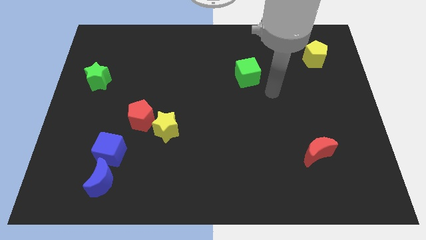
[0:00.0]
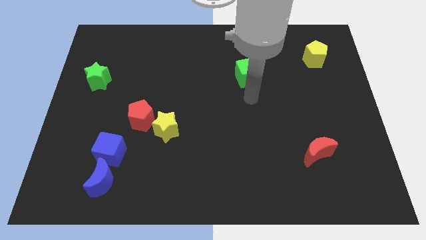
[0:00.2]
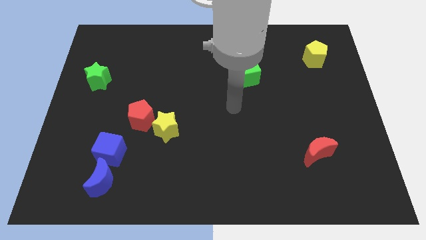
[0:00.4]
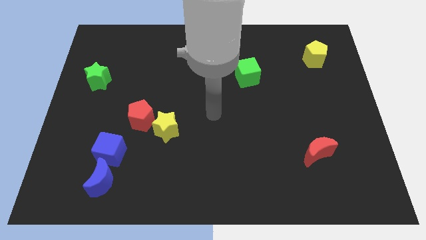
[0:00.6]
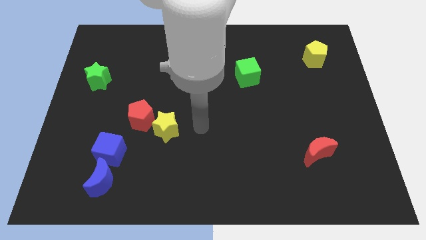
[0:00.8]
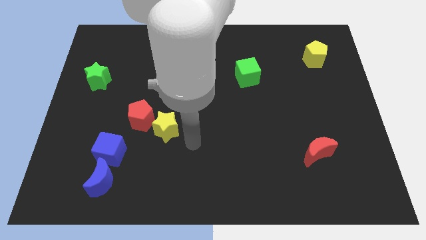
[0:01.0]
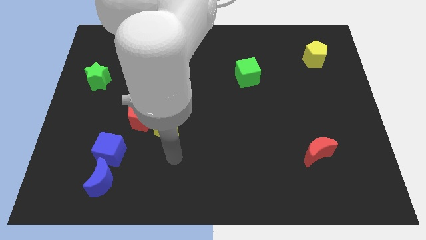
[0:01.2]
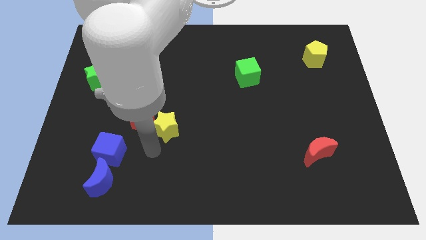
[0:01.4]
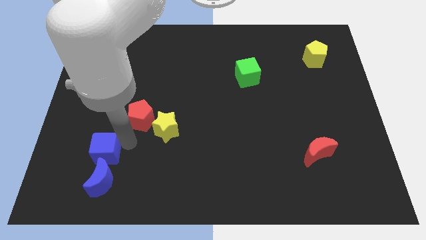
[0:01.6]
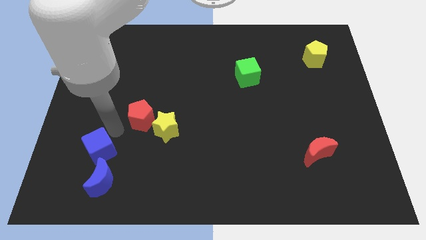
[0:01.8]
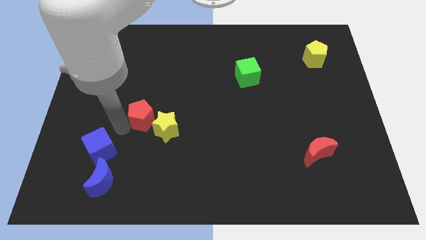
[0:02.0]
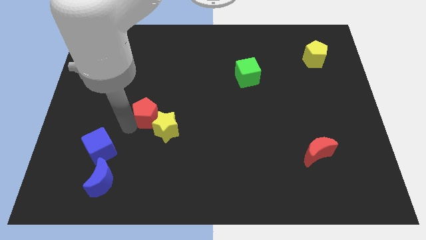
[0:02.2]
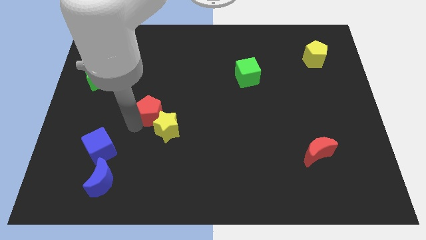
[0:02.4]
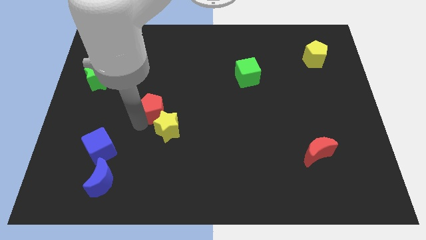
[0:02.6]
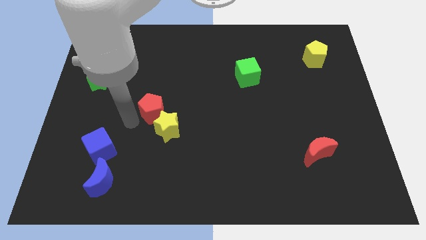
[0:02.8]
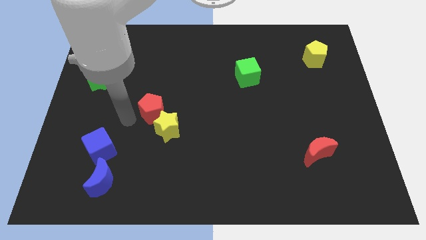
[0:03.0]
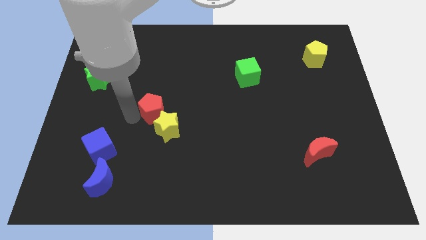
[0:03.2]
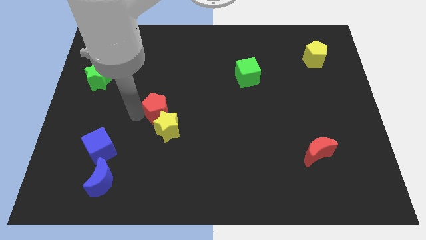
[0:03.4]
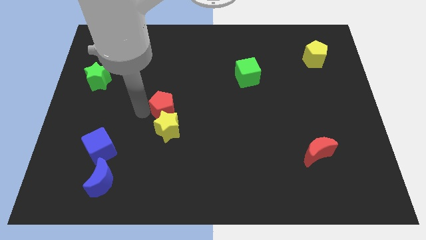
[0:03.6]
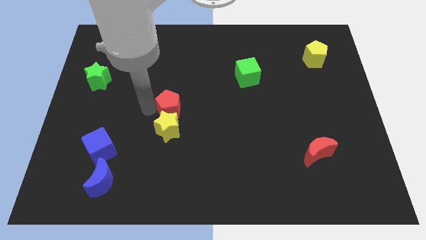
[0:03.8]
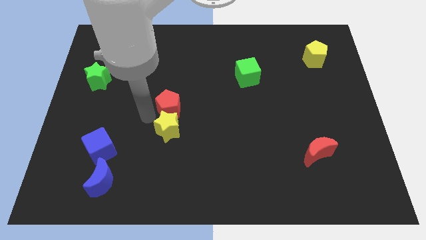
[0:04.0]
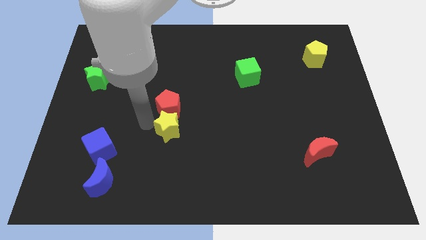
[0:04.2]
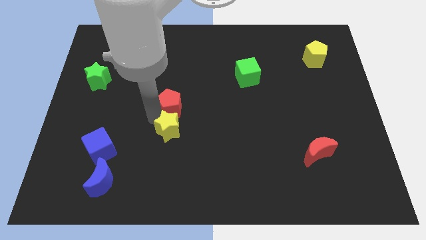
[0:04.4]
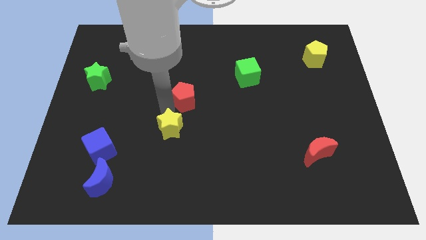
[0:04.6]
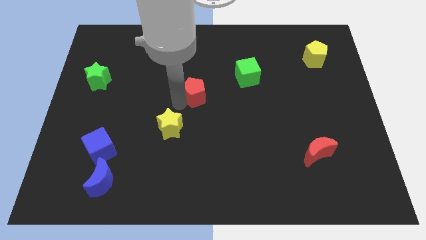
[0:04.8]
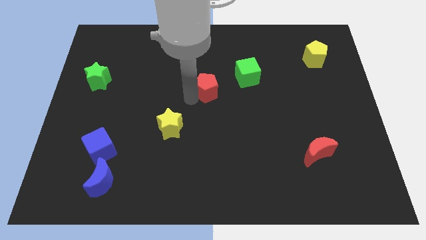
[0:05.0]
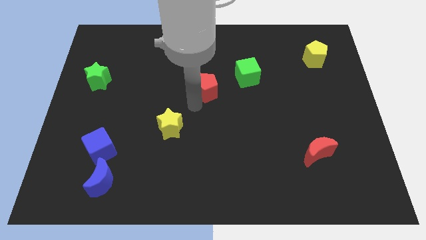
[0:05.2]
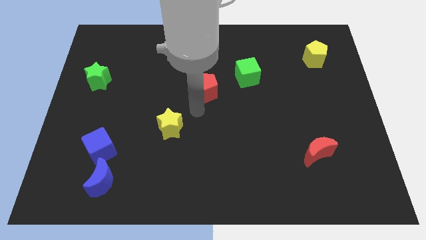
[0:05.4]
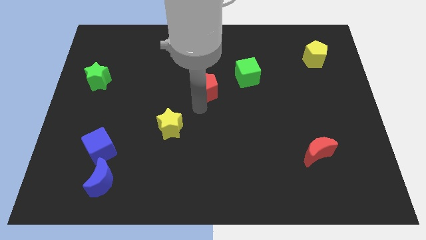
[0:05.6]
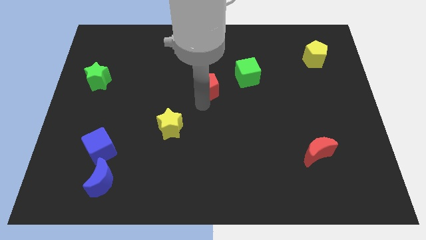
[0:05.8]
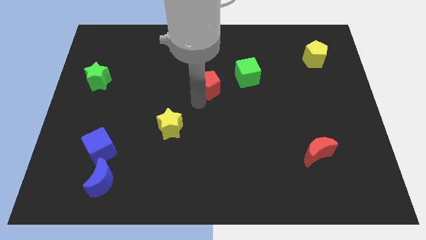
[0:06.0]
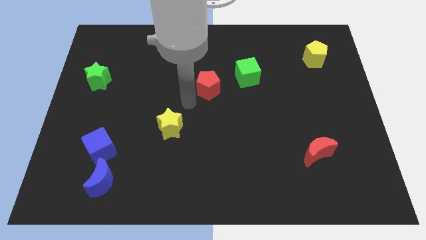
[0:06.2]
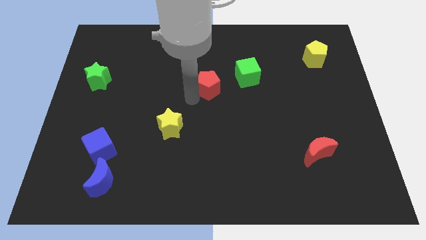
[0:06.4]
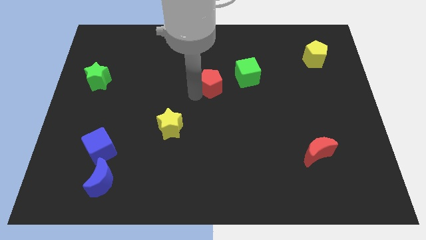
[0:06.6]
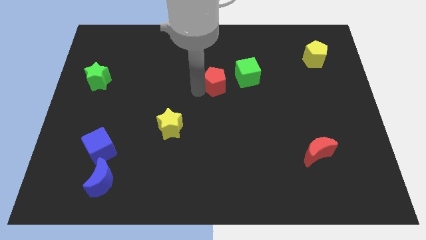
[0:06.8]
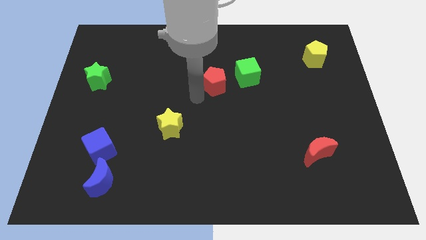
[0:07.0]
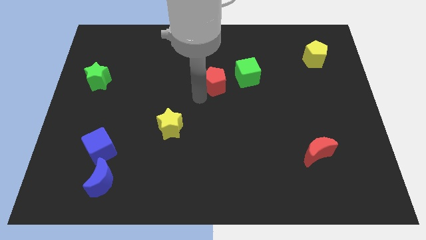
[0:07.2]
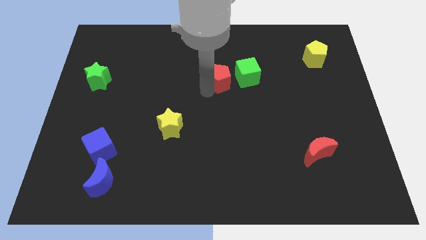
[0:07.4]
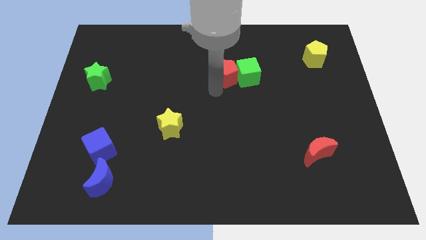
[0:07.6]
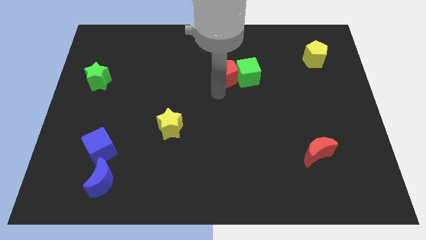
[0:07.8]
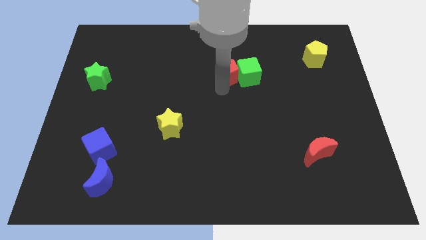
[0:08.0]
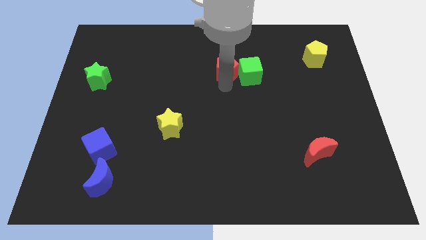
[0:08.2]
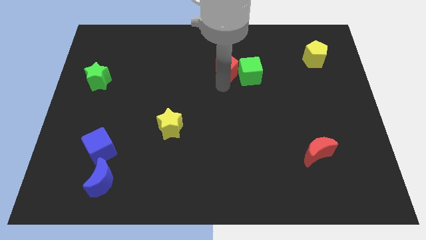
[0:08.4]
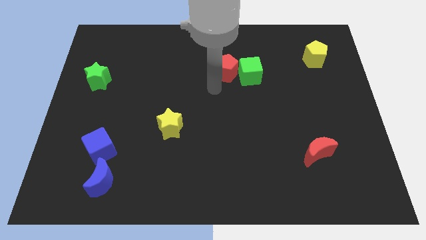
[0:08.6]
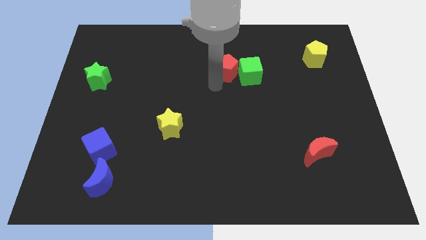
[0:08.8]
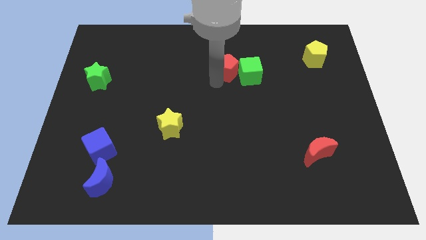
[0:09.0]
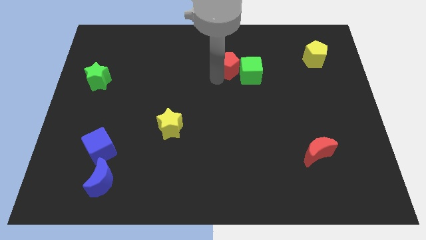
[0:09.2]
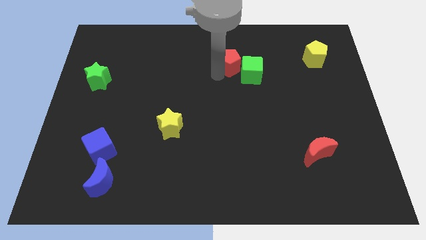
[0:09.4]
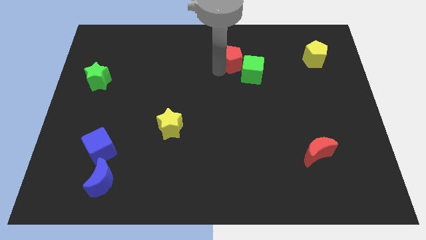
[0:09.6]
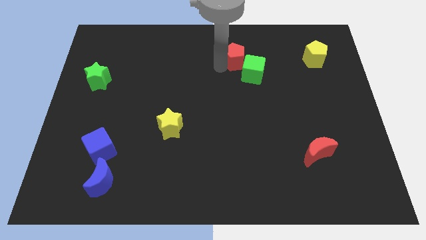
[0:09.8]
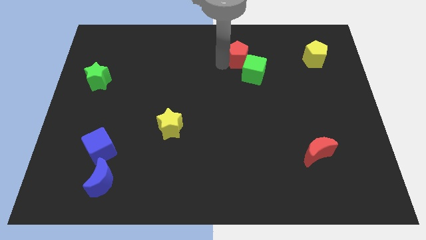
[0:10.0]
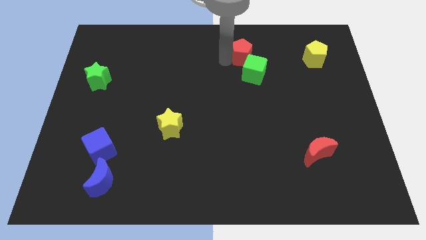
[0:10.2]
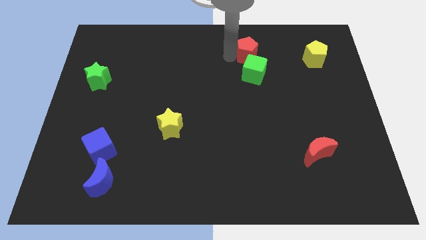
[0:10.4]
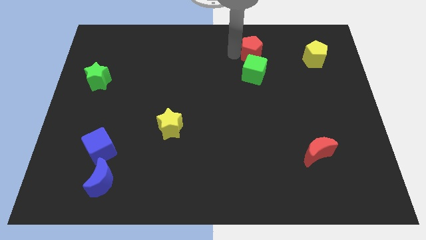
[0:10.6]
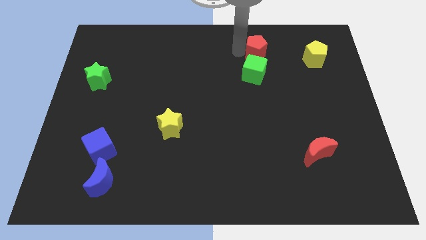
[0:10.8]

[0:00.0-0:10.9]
slide the red pentagon left of the yellow pentagon

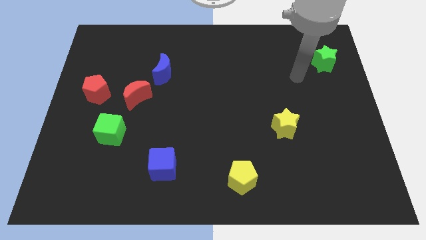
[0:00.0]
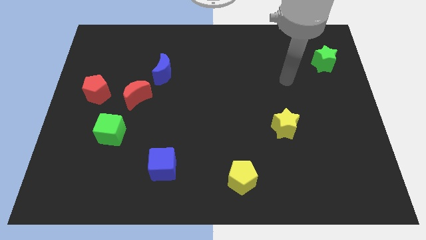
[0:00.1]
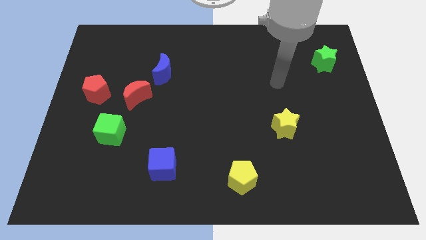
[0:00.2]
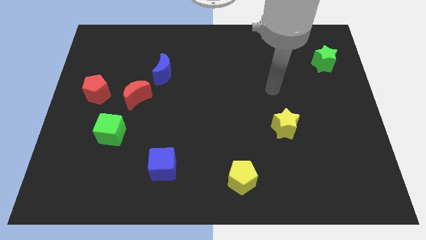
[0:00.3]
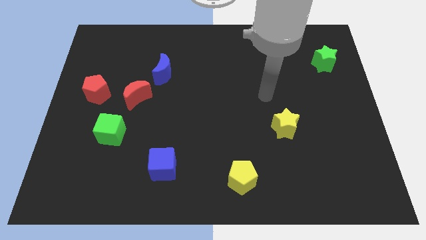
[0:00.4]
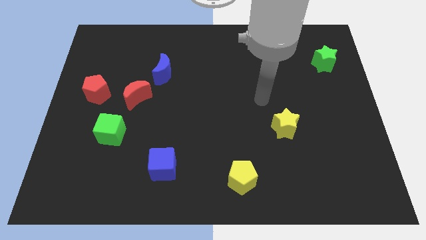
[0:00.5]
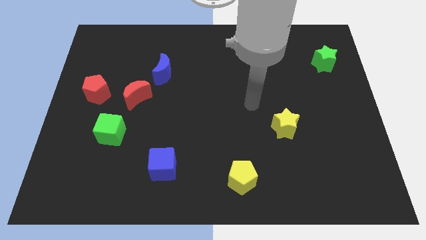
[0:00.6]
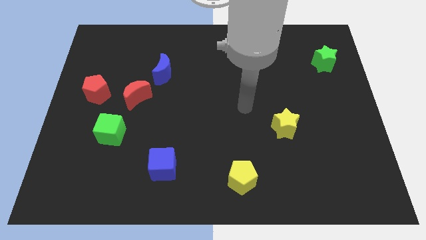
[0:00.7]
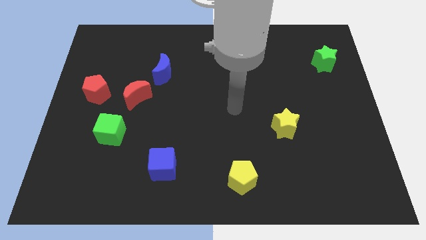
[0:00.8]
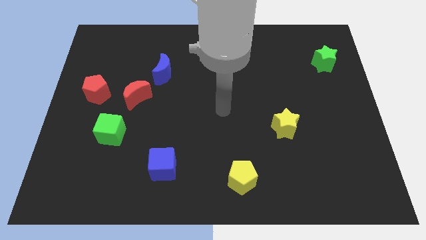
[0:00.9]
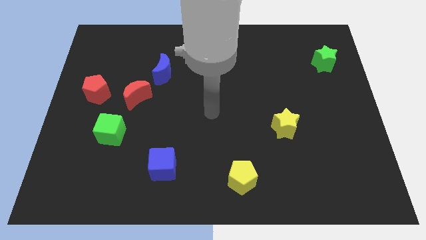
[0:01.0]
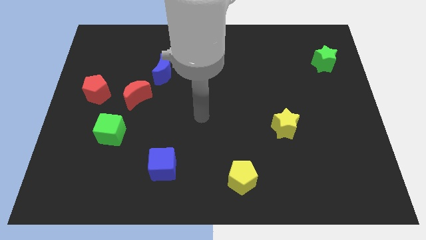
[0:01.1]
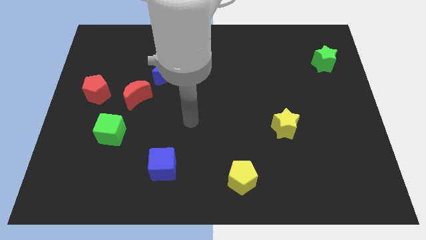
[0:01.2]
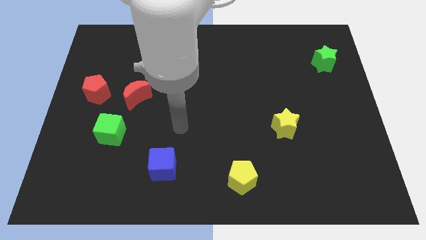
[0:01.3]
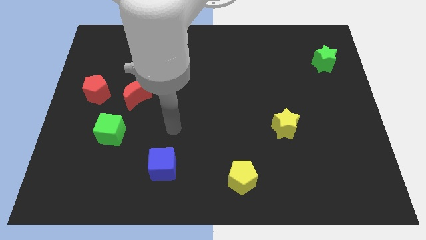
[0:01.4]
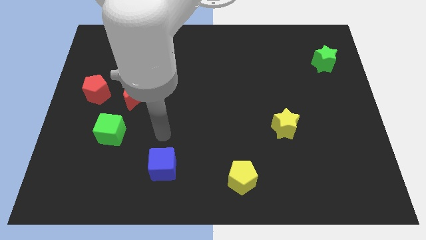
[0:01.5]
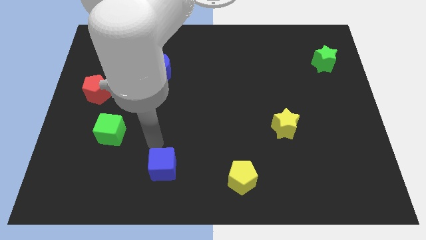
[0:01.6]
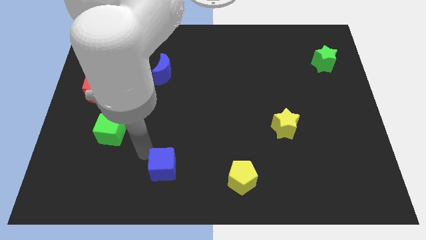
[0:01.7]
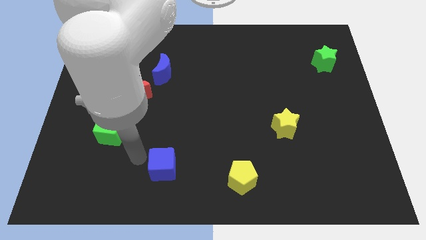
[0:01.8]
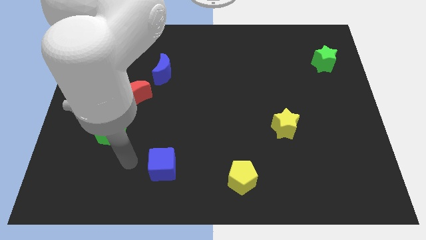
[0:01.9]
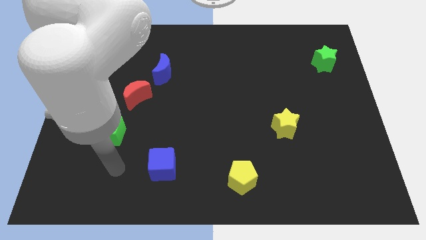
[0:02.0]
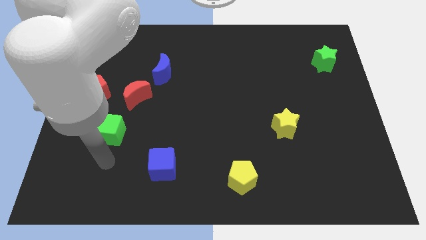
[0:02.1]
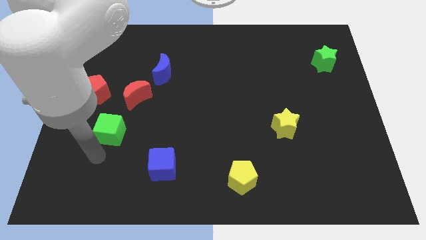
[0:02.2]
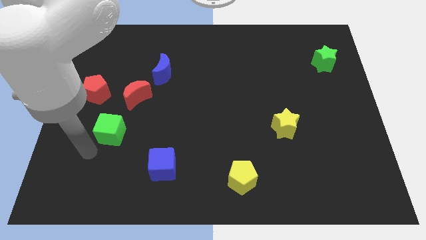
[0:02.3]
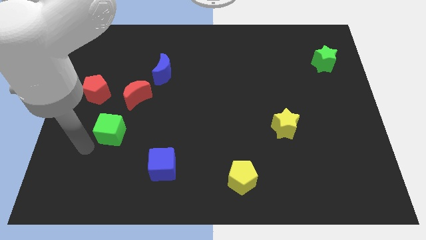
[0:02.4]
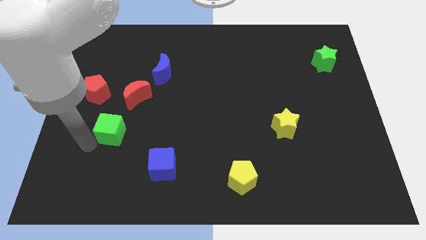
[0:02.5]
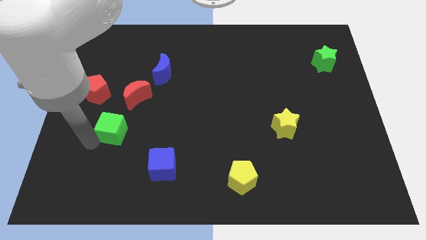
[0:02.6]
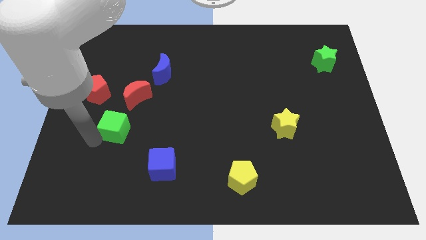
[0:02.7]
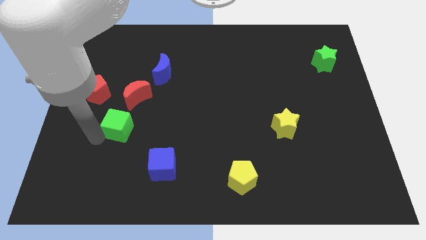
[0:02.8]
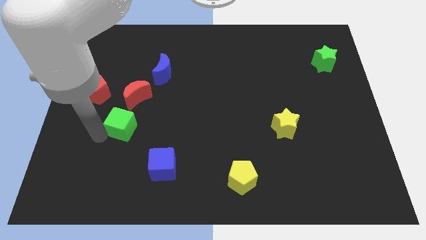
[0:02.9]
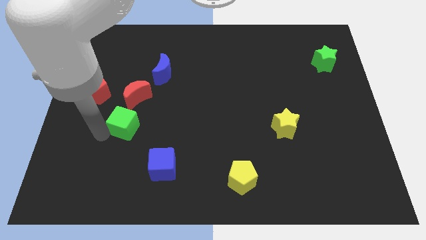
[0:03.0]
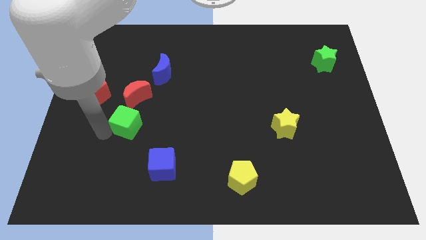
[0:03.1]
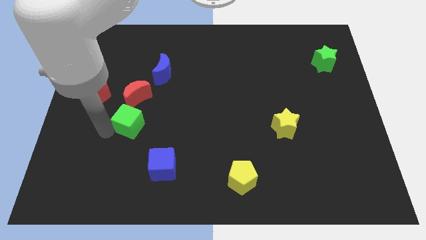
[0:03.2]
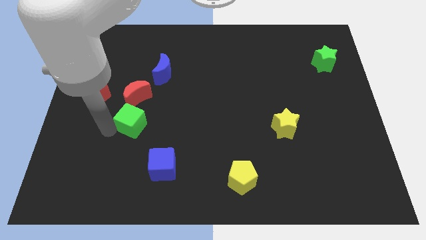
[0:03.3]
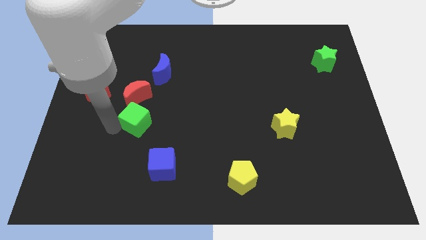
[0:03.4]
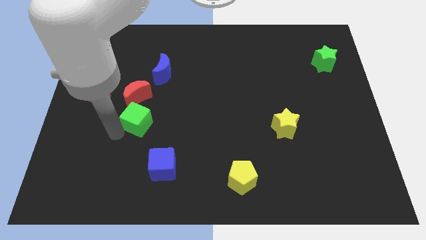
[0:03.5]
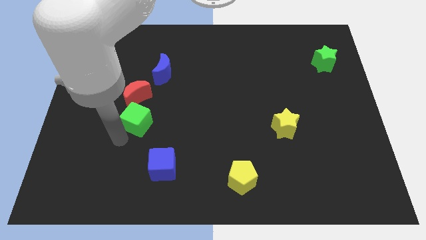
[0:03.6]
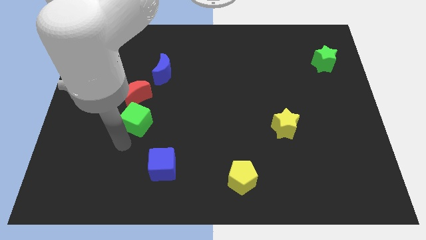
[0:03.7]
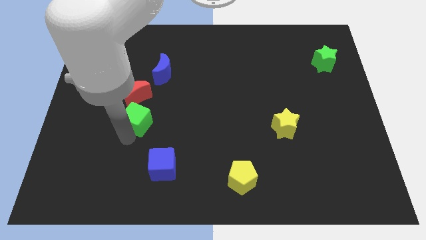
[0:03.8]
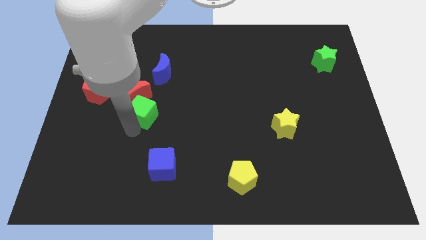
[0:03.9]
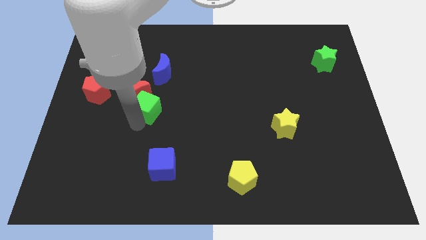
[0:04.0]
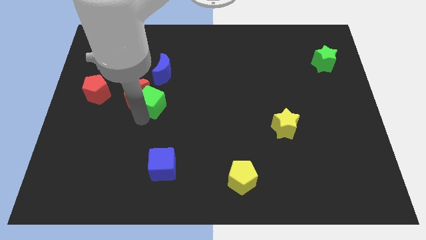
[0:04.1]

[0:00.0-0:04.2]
put the green cube just right of the red pentagon
